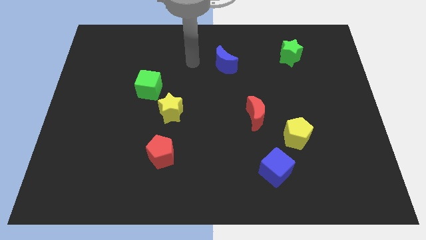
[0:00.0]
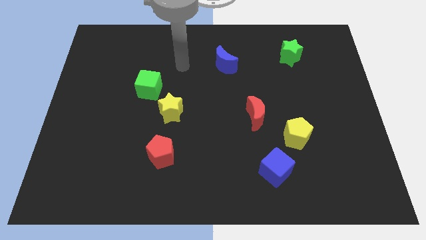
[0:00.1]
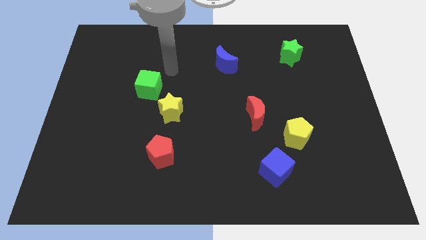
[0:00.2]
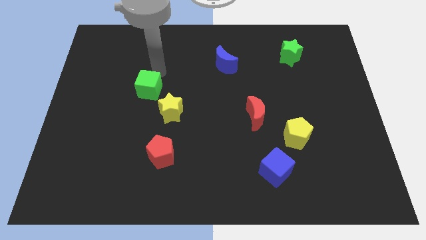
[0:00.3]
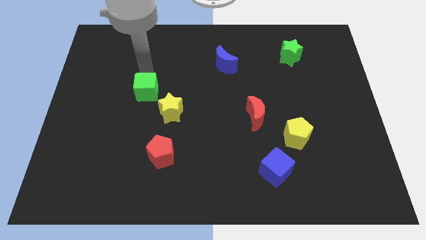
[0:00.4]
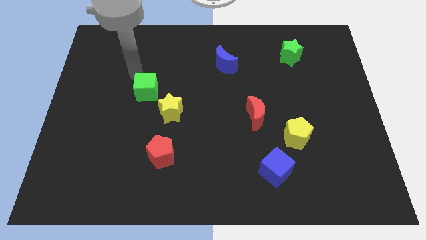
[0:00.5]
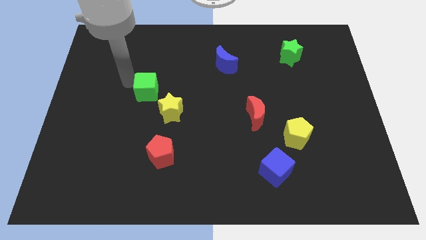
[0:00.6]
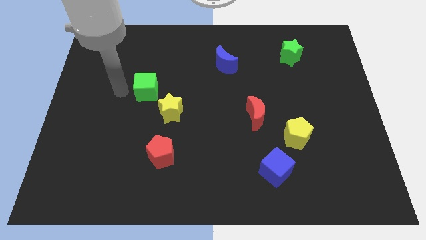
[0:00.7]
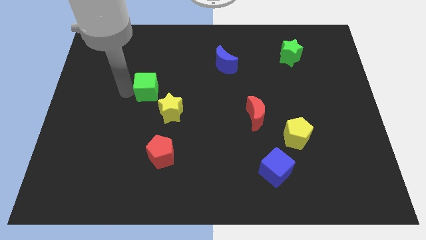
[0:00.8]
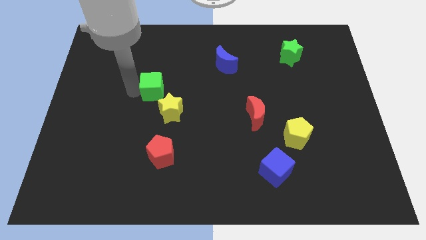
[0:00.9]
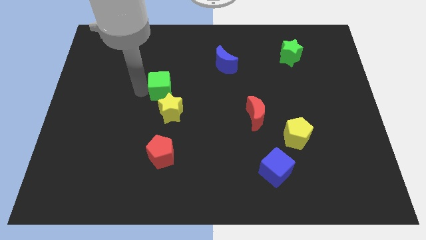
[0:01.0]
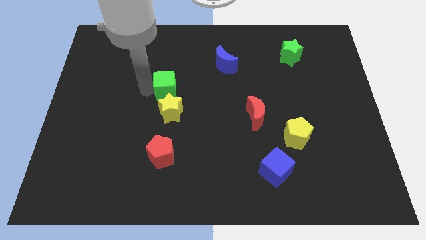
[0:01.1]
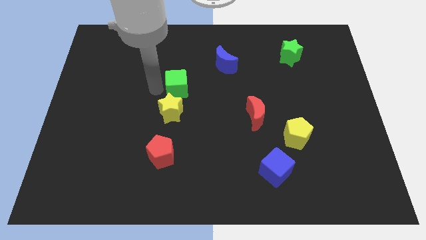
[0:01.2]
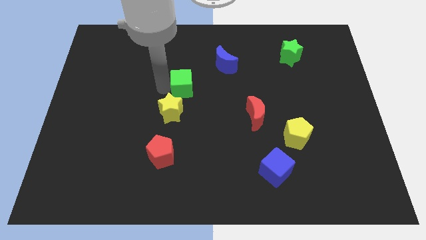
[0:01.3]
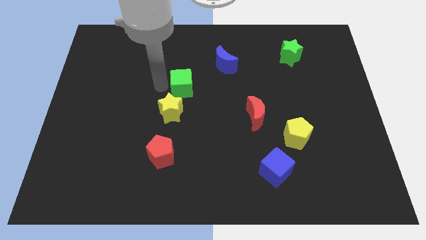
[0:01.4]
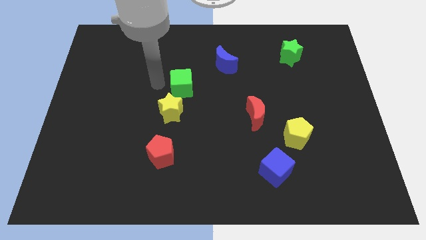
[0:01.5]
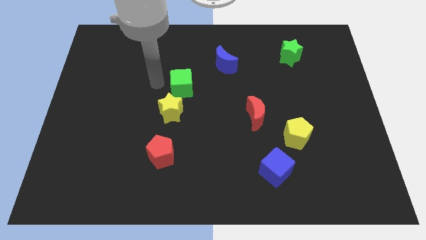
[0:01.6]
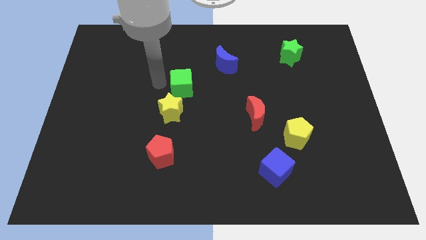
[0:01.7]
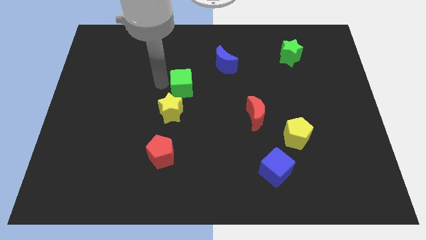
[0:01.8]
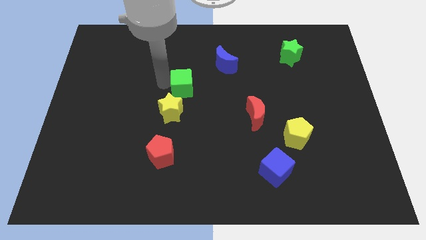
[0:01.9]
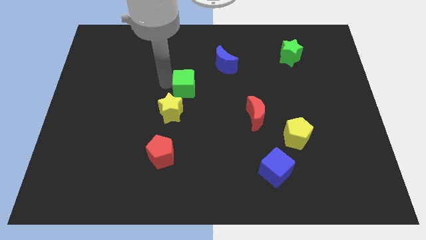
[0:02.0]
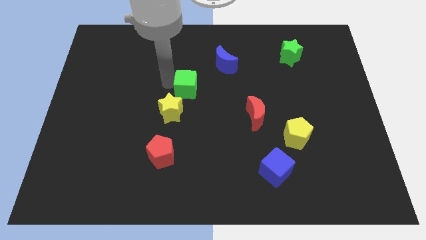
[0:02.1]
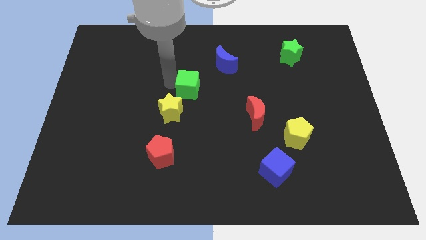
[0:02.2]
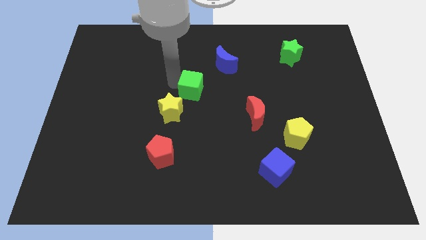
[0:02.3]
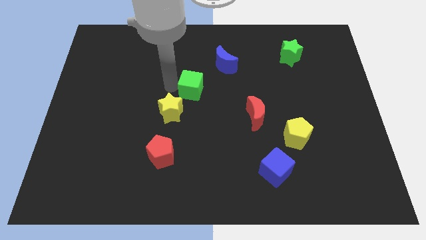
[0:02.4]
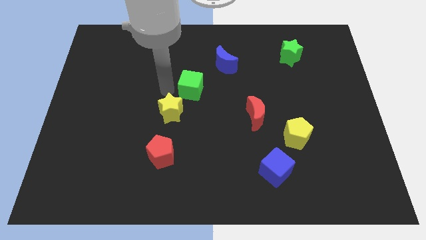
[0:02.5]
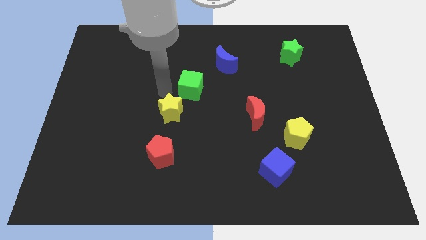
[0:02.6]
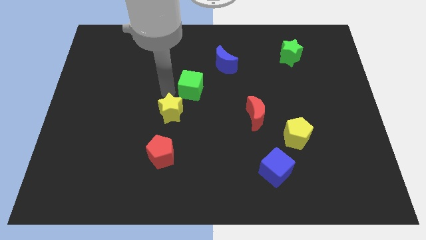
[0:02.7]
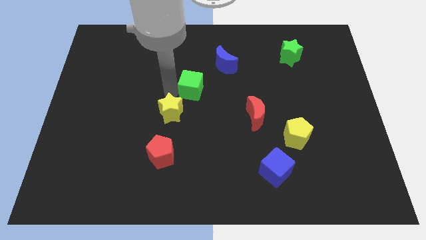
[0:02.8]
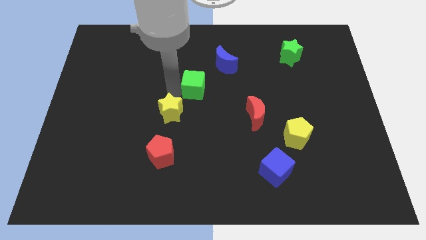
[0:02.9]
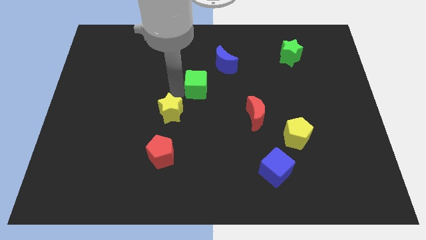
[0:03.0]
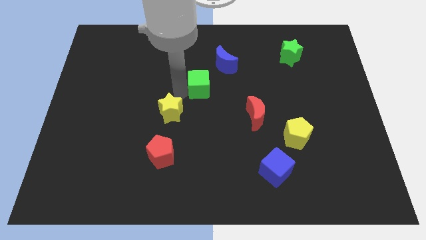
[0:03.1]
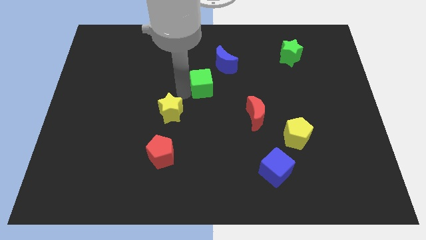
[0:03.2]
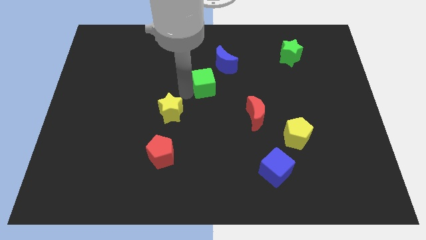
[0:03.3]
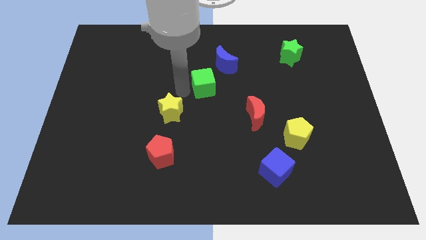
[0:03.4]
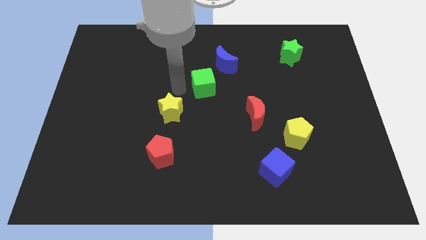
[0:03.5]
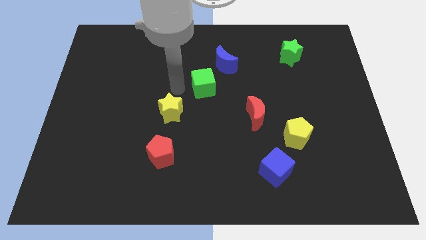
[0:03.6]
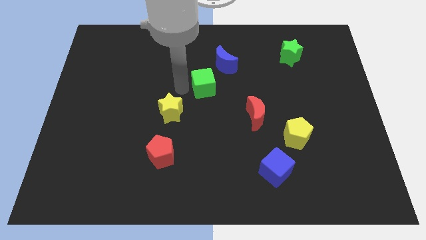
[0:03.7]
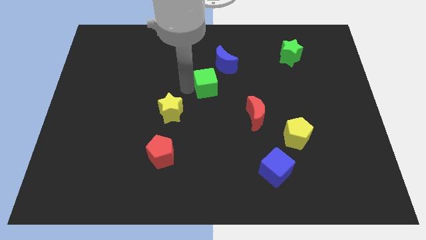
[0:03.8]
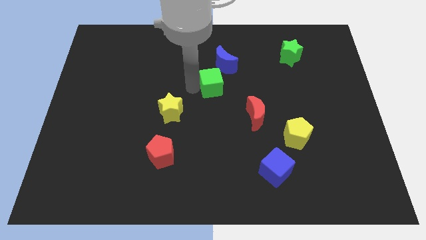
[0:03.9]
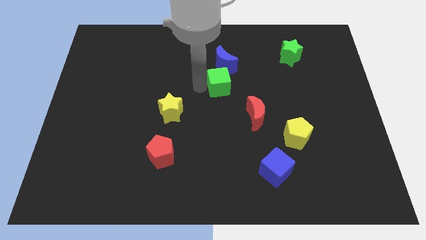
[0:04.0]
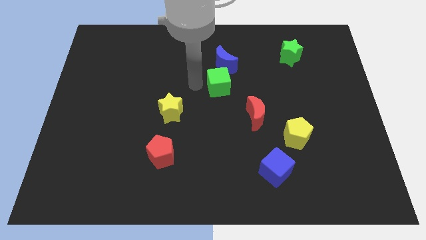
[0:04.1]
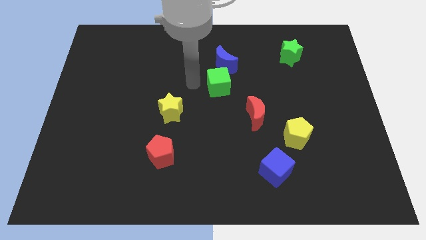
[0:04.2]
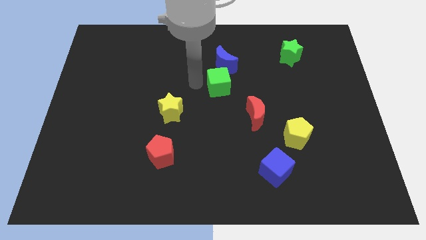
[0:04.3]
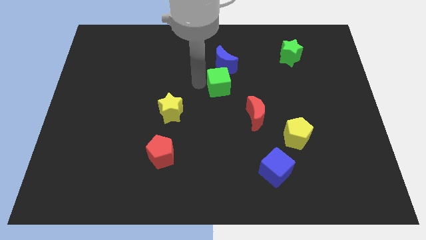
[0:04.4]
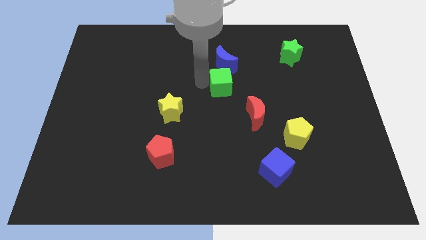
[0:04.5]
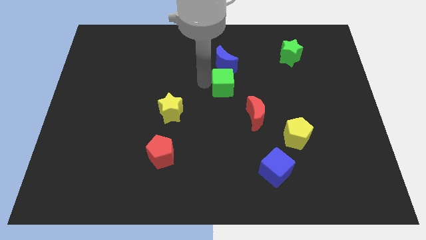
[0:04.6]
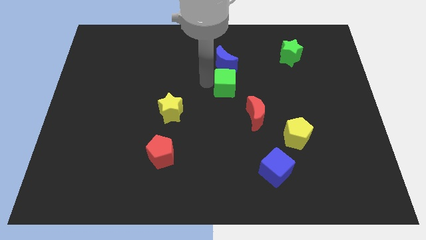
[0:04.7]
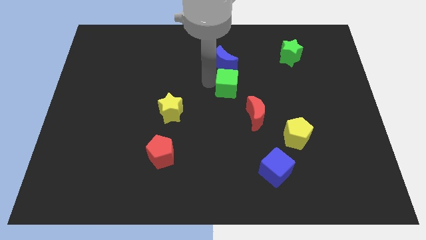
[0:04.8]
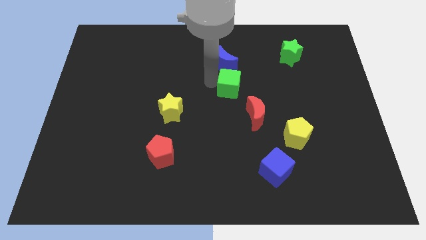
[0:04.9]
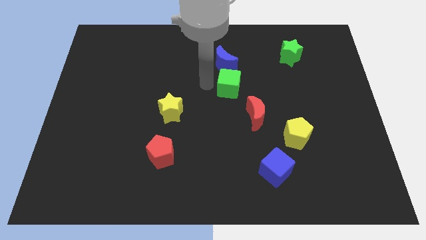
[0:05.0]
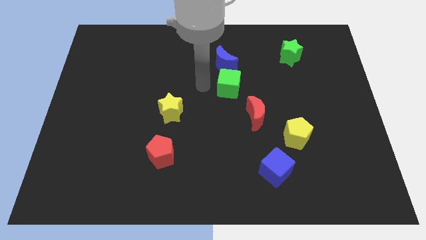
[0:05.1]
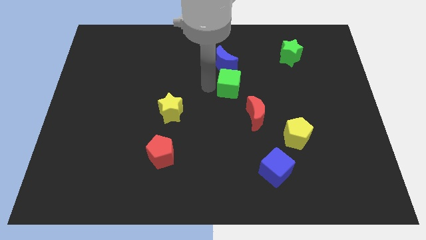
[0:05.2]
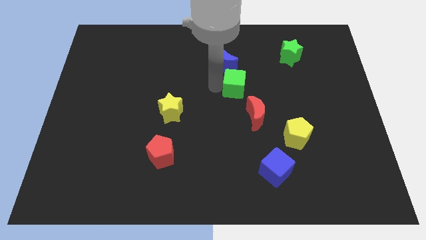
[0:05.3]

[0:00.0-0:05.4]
push the green cube right

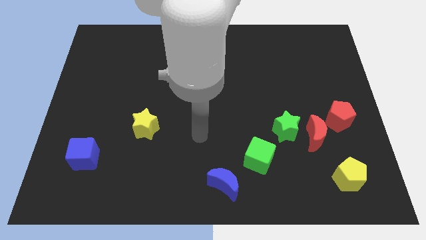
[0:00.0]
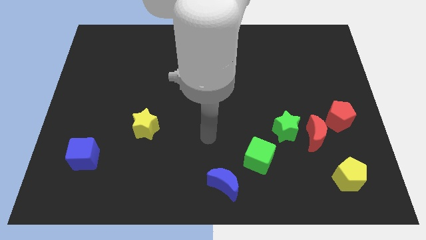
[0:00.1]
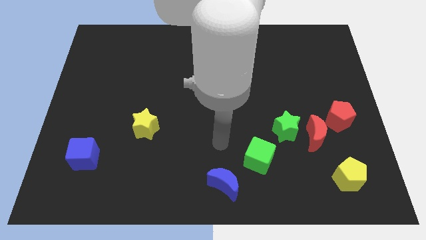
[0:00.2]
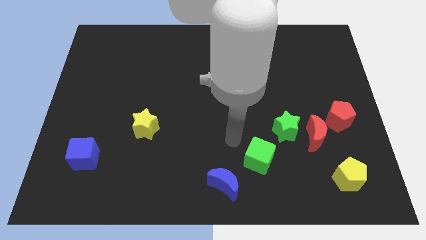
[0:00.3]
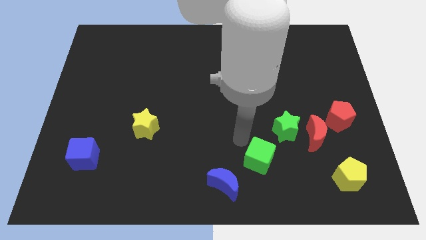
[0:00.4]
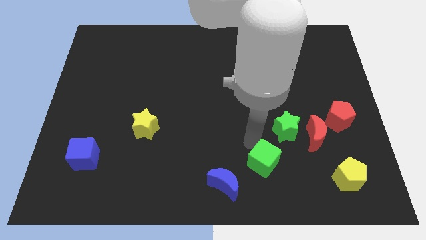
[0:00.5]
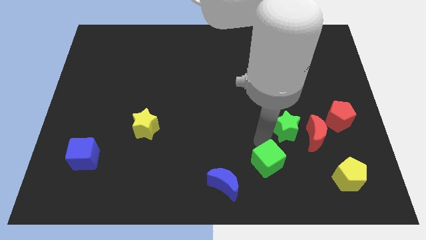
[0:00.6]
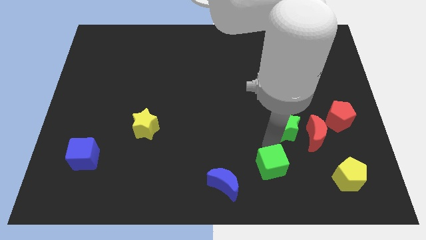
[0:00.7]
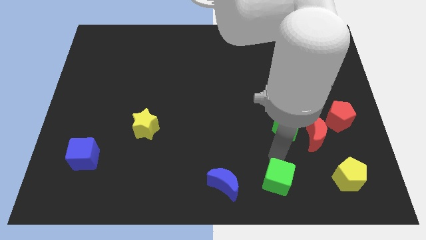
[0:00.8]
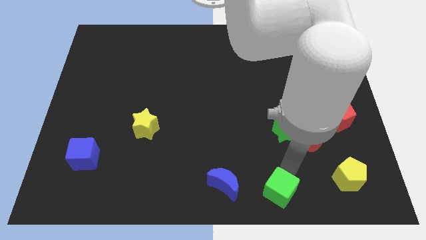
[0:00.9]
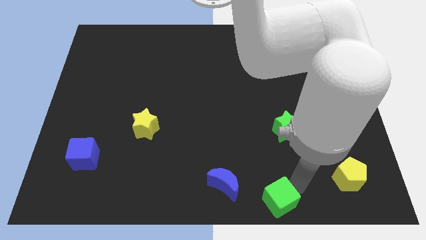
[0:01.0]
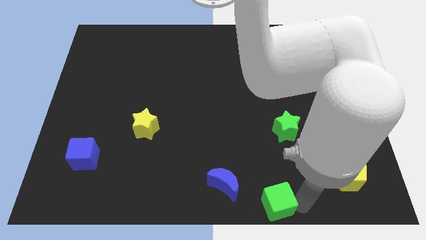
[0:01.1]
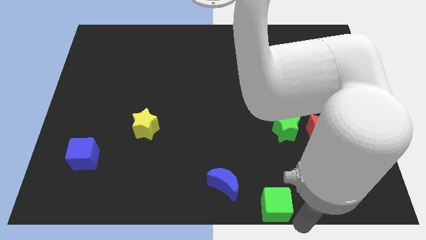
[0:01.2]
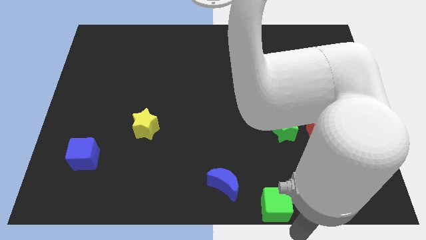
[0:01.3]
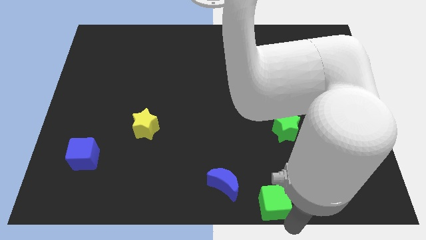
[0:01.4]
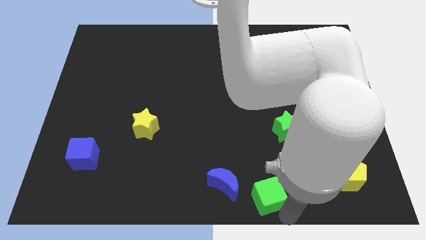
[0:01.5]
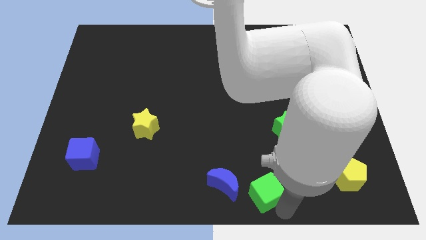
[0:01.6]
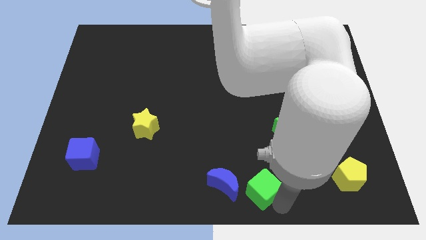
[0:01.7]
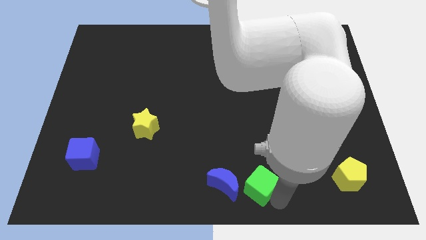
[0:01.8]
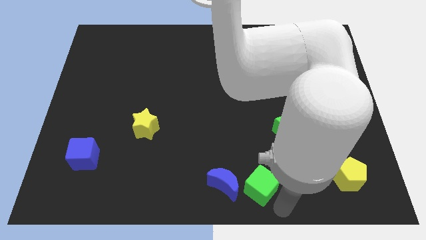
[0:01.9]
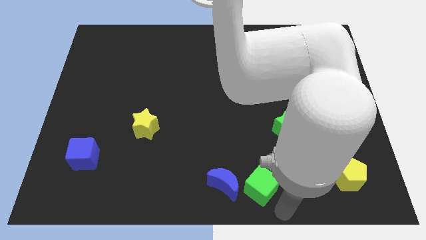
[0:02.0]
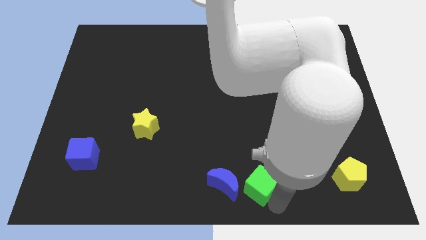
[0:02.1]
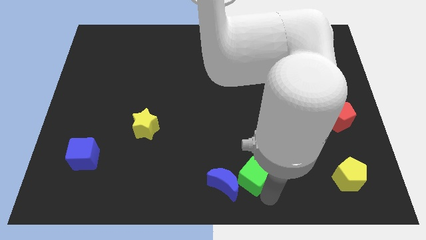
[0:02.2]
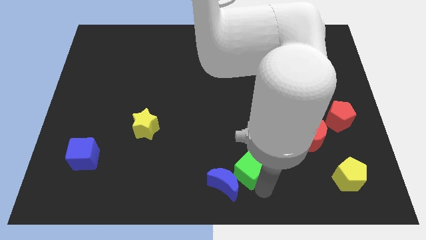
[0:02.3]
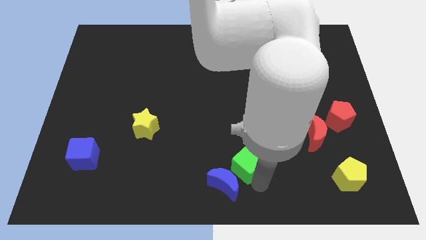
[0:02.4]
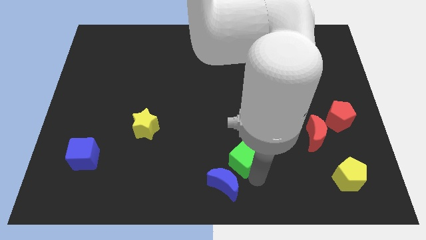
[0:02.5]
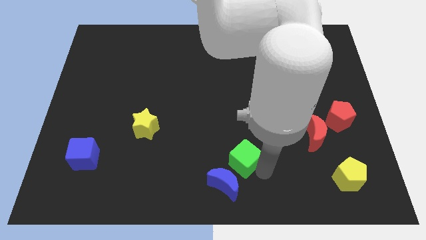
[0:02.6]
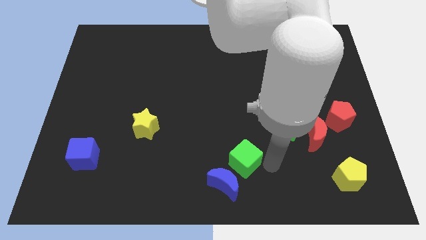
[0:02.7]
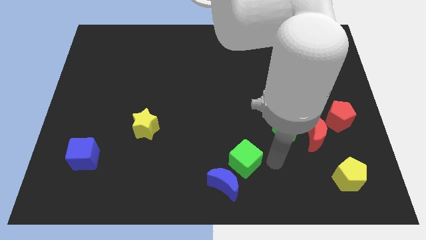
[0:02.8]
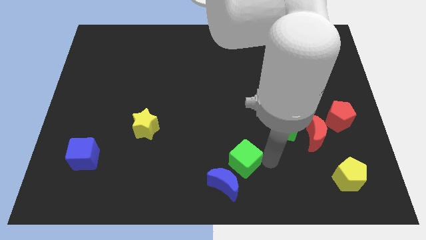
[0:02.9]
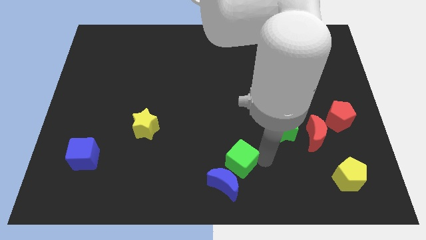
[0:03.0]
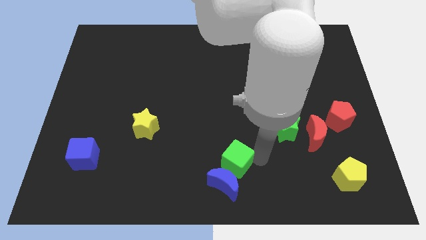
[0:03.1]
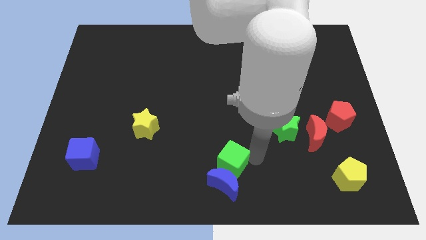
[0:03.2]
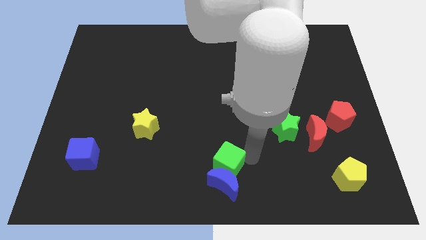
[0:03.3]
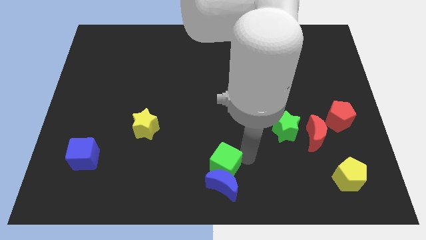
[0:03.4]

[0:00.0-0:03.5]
slide the green cube left somewhat
